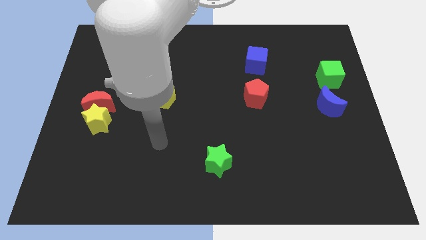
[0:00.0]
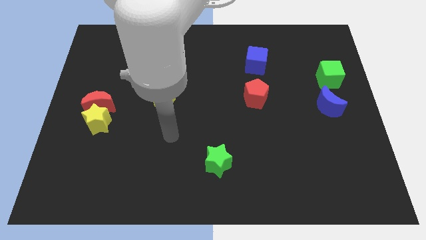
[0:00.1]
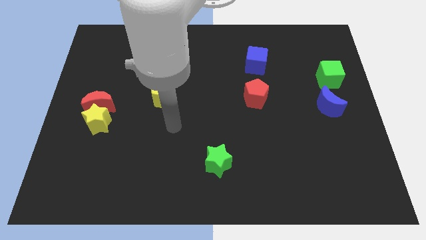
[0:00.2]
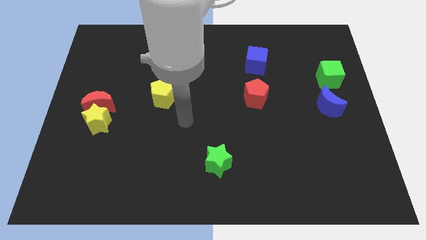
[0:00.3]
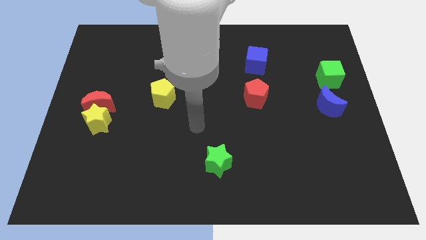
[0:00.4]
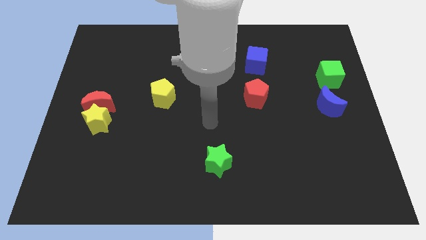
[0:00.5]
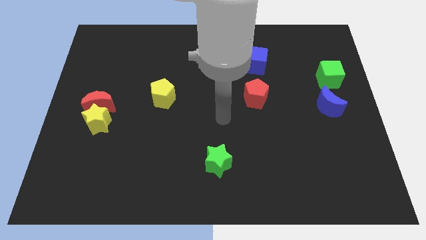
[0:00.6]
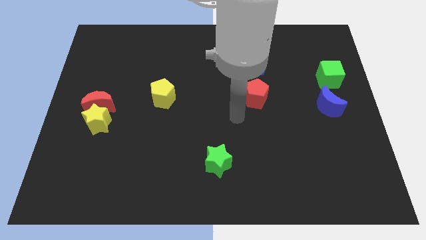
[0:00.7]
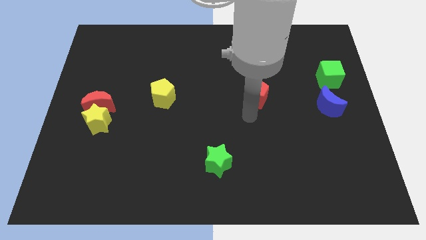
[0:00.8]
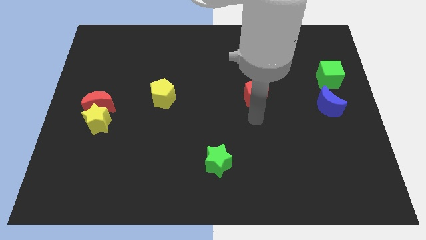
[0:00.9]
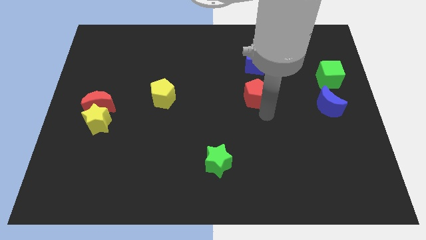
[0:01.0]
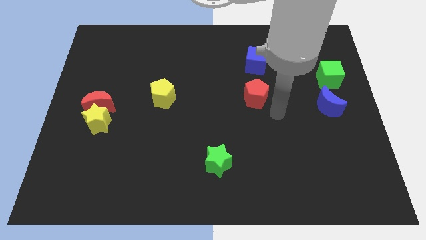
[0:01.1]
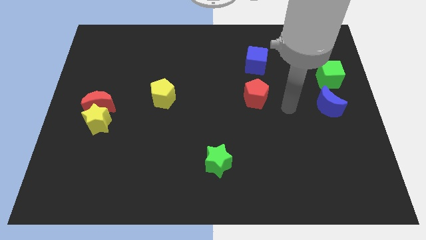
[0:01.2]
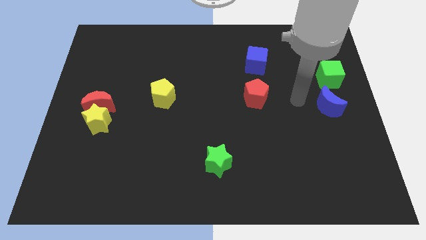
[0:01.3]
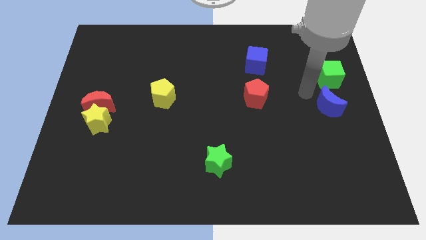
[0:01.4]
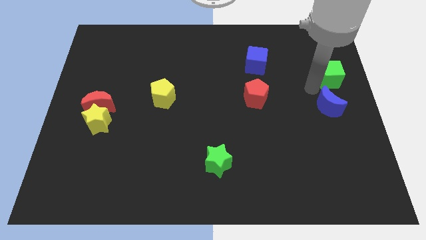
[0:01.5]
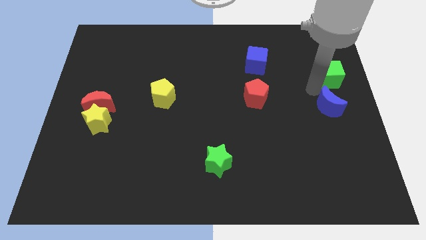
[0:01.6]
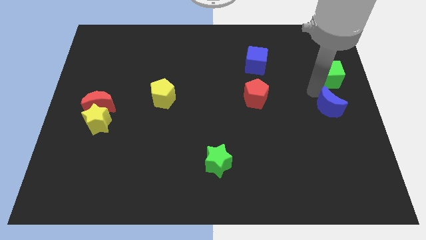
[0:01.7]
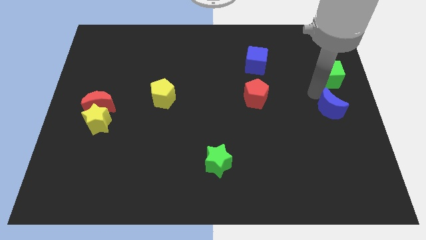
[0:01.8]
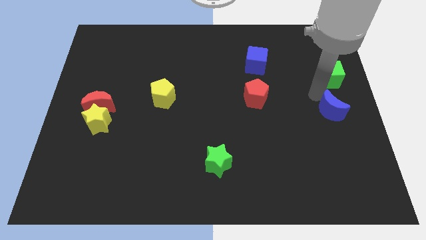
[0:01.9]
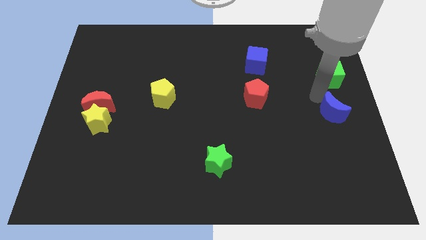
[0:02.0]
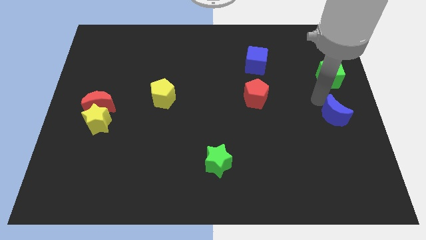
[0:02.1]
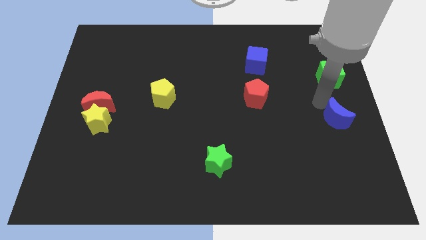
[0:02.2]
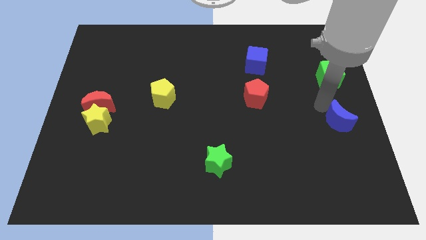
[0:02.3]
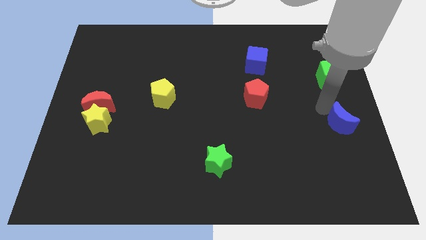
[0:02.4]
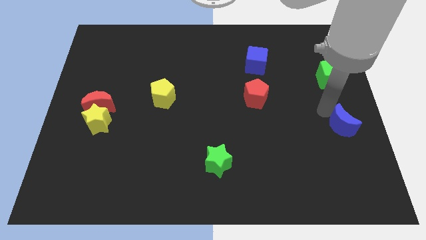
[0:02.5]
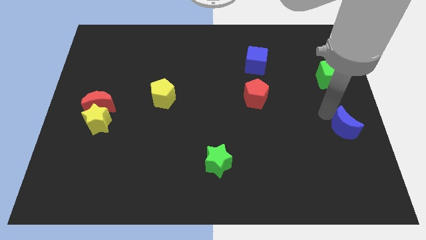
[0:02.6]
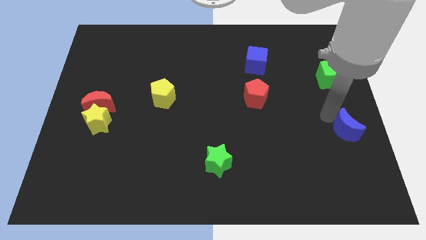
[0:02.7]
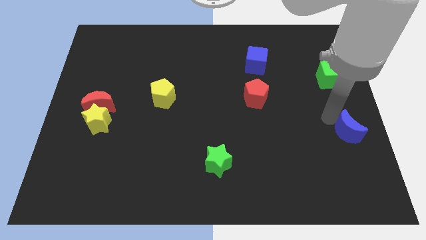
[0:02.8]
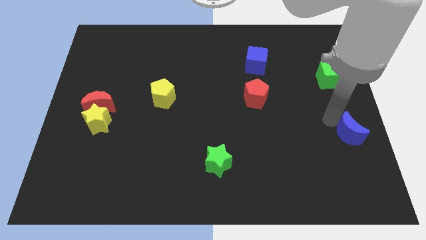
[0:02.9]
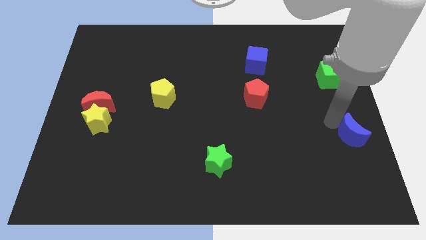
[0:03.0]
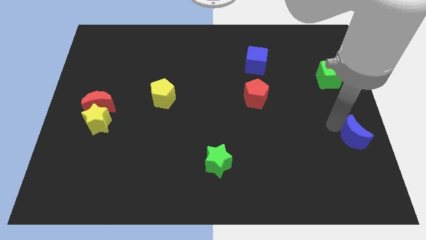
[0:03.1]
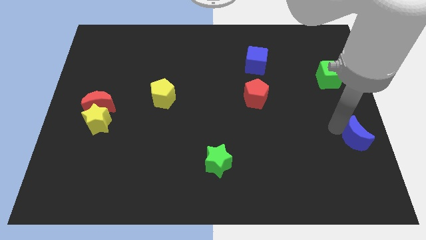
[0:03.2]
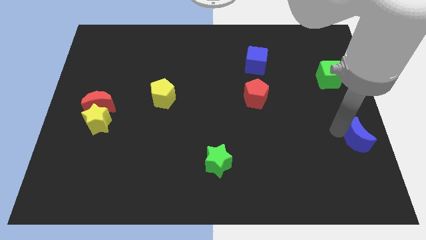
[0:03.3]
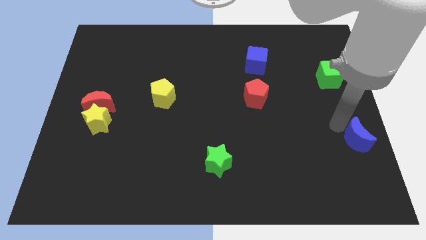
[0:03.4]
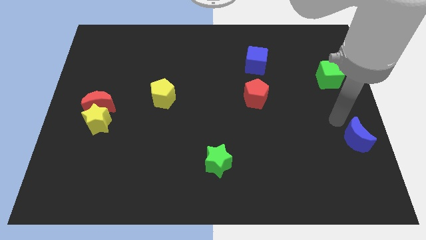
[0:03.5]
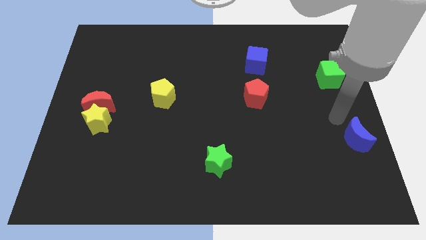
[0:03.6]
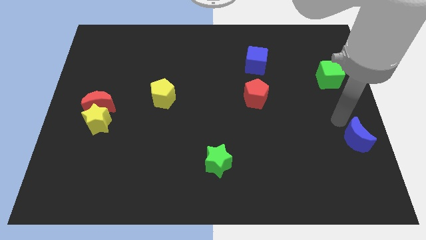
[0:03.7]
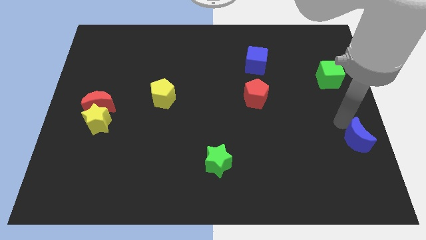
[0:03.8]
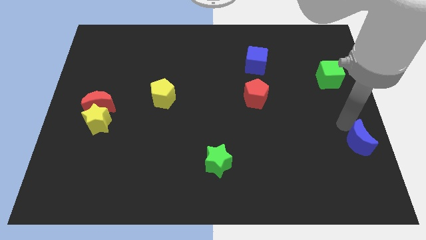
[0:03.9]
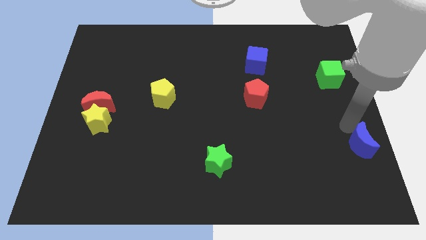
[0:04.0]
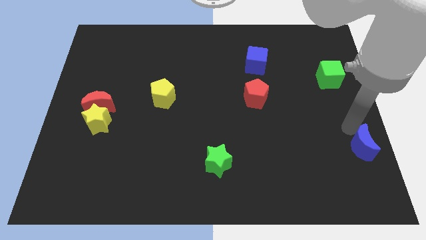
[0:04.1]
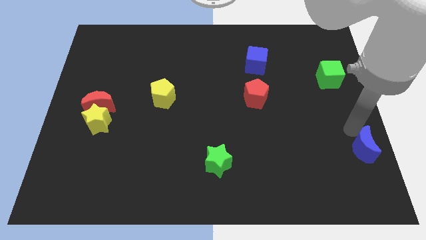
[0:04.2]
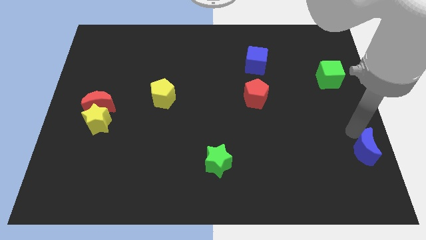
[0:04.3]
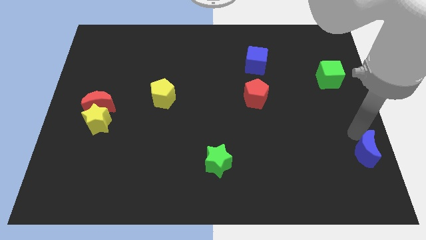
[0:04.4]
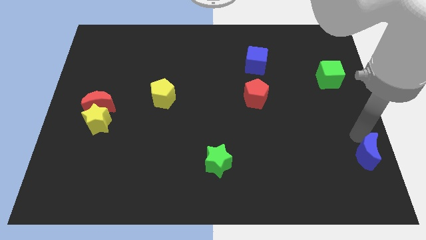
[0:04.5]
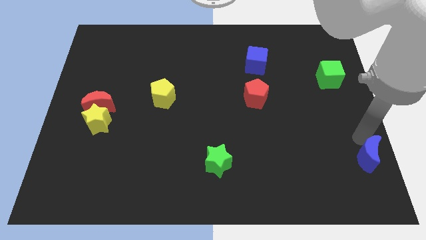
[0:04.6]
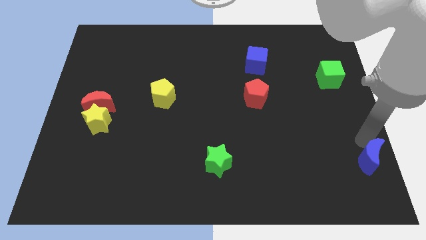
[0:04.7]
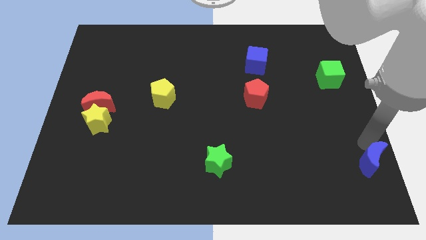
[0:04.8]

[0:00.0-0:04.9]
slide the blue moon to the bottom right

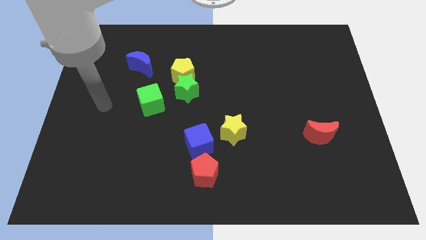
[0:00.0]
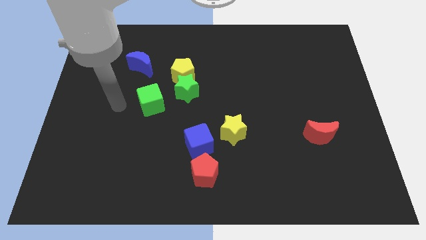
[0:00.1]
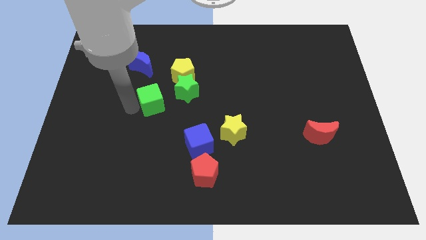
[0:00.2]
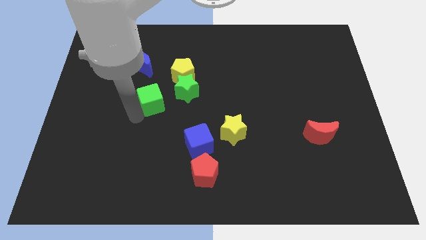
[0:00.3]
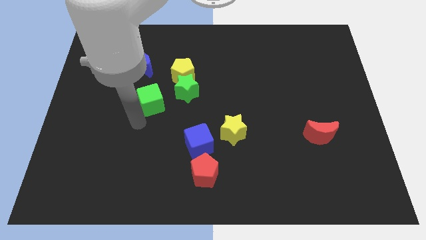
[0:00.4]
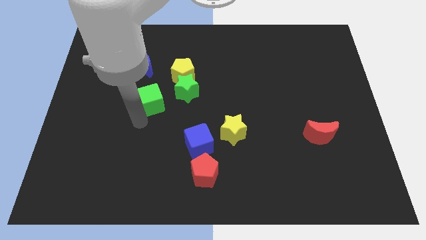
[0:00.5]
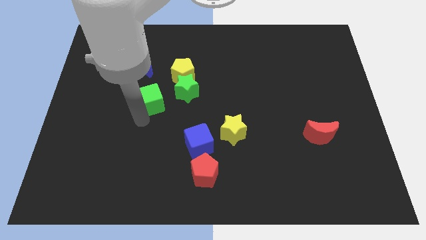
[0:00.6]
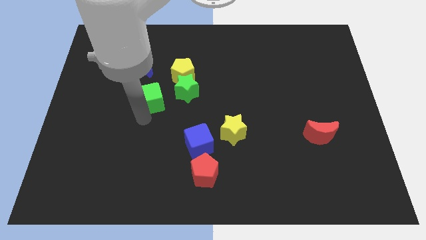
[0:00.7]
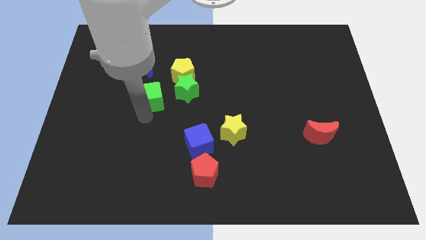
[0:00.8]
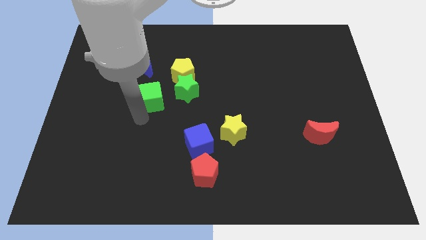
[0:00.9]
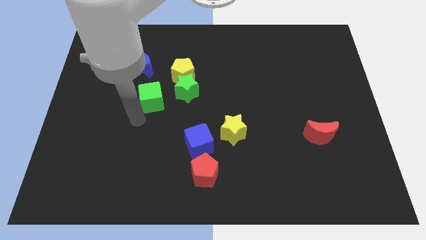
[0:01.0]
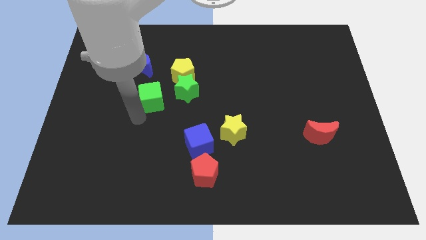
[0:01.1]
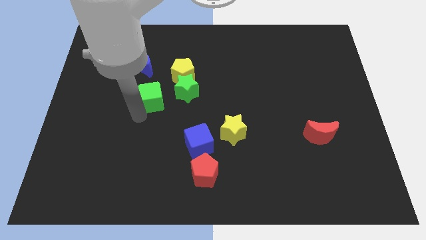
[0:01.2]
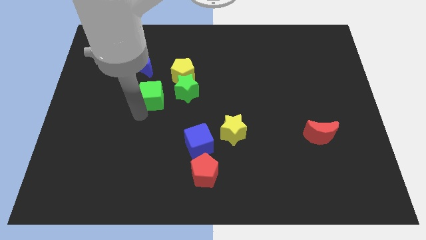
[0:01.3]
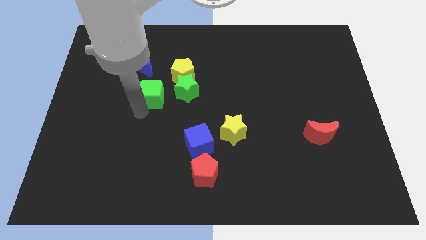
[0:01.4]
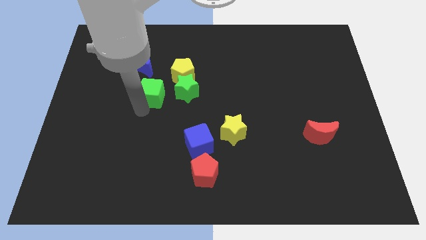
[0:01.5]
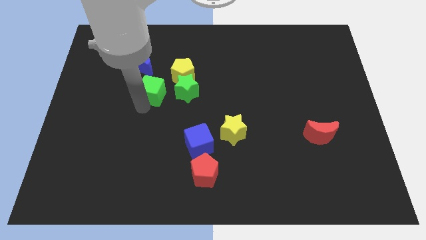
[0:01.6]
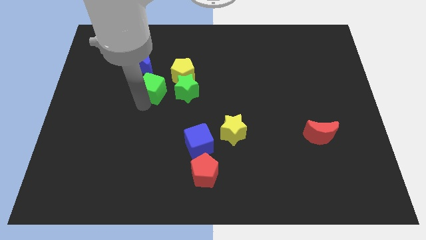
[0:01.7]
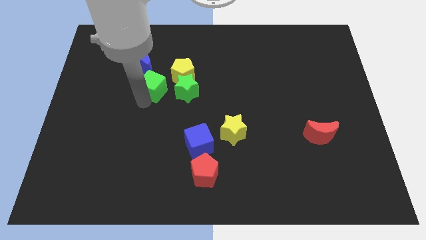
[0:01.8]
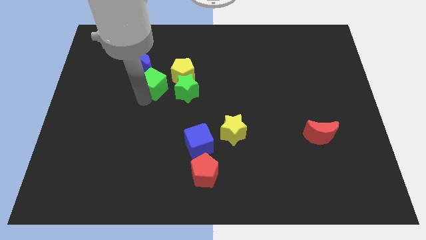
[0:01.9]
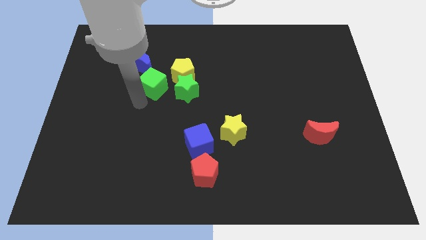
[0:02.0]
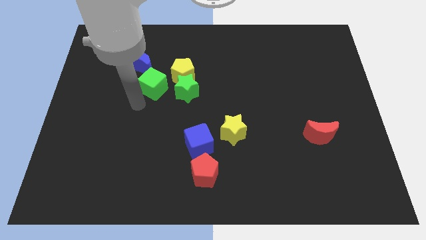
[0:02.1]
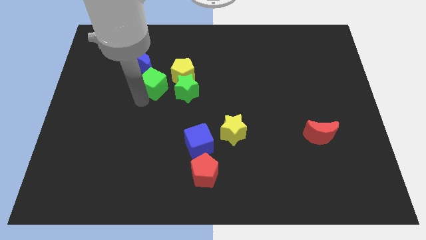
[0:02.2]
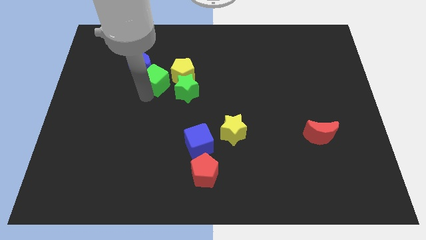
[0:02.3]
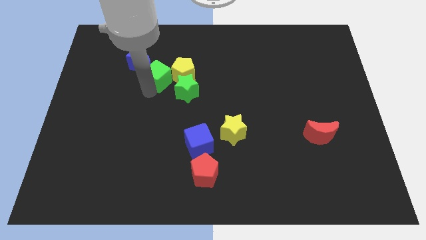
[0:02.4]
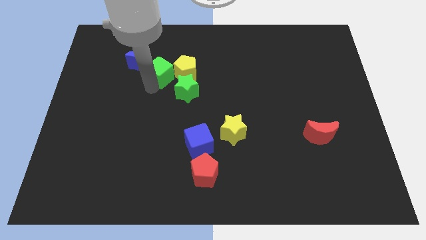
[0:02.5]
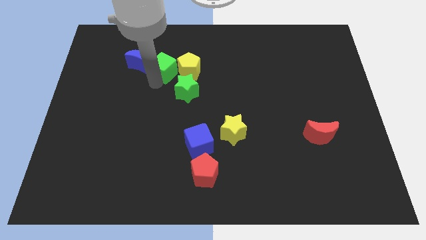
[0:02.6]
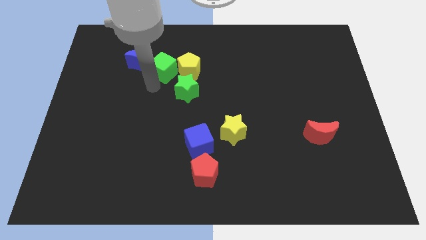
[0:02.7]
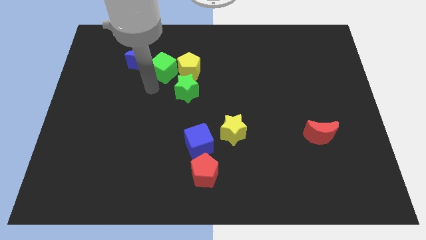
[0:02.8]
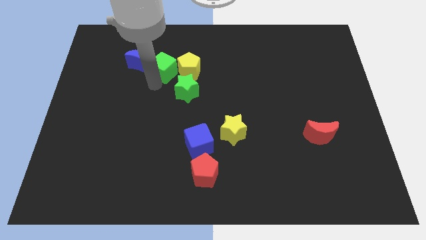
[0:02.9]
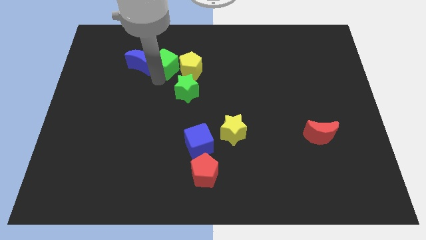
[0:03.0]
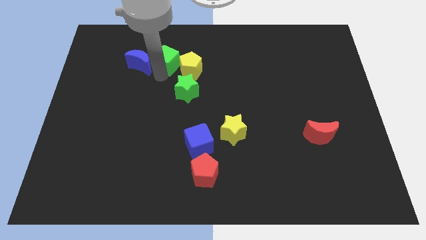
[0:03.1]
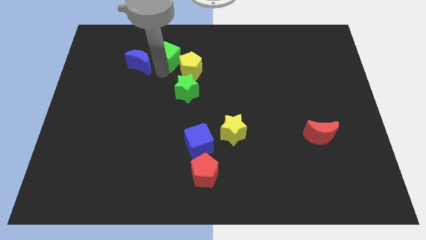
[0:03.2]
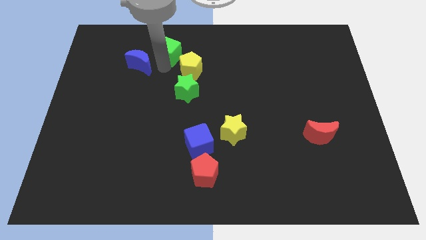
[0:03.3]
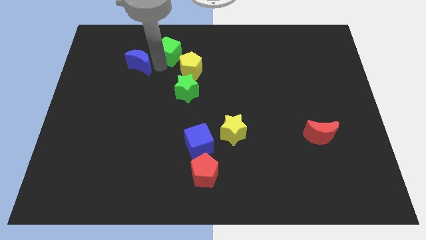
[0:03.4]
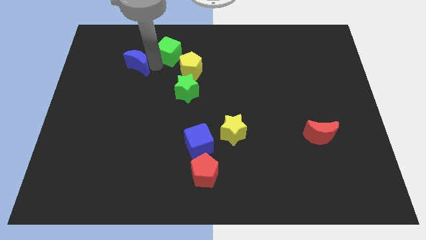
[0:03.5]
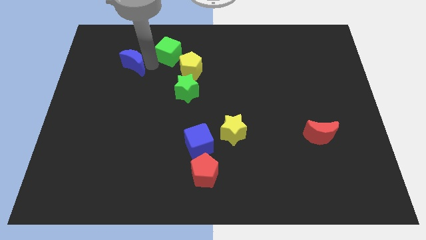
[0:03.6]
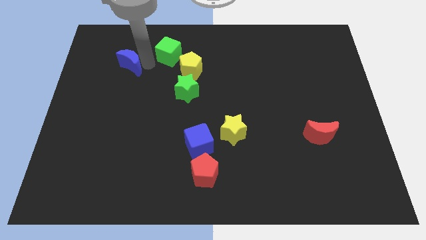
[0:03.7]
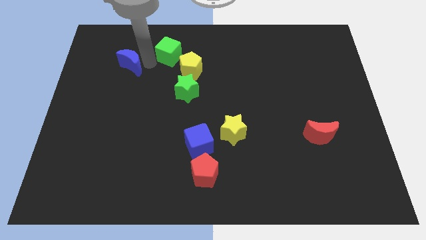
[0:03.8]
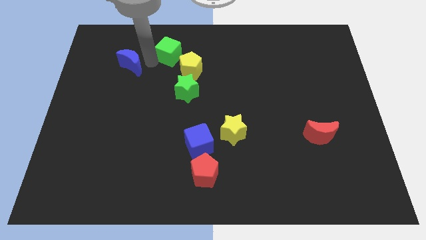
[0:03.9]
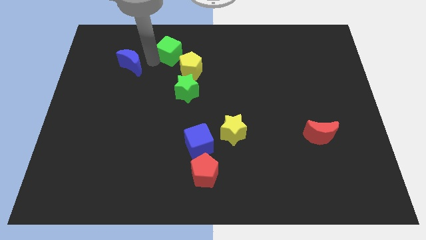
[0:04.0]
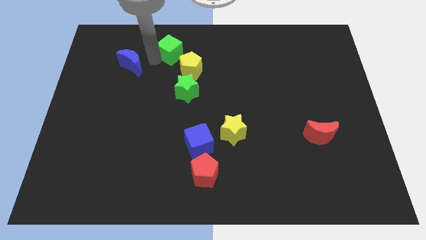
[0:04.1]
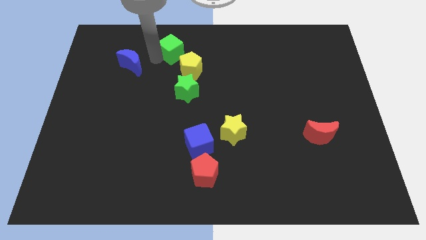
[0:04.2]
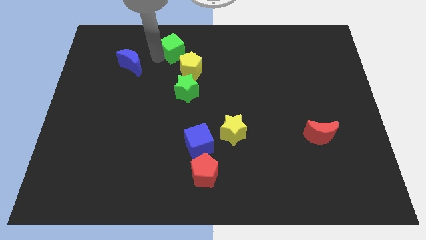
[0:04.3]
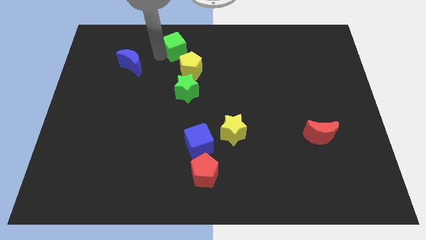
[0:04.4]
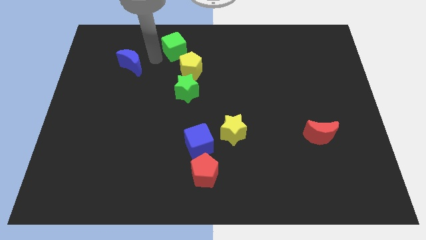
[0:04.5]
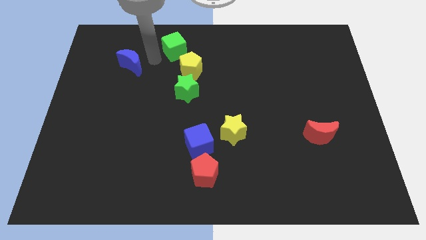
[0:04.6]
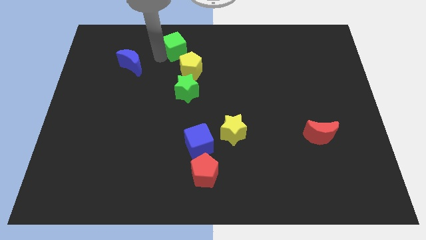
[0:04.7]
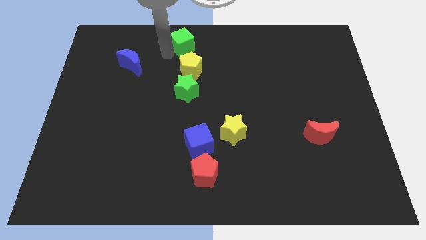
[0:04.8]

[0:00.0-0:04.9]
put the green cube to the towards your base
